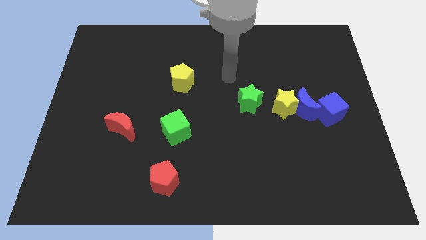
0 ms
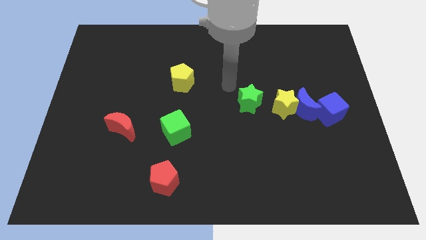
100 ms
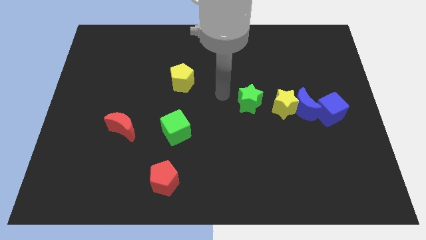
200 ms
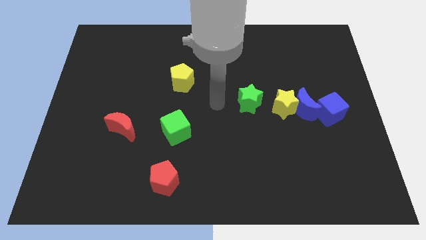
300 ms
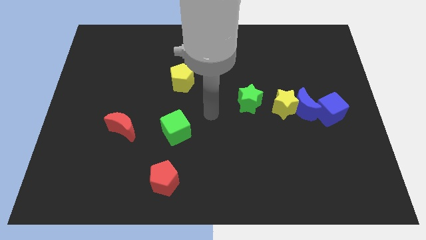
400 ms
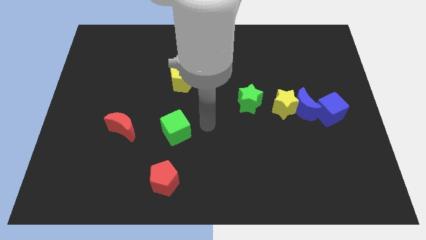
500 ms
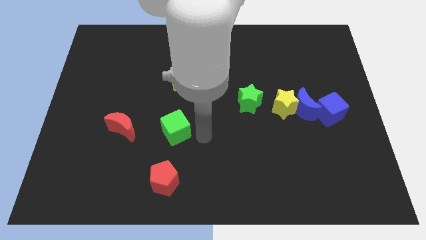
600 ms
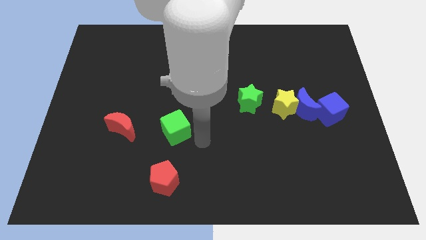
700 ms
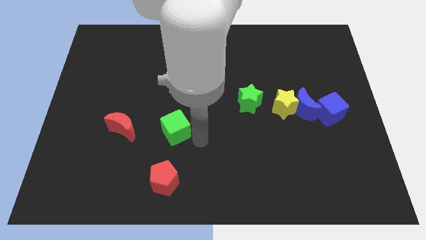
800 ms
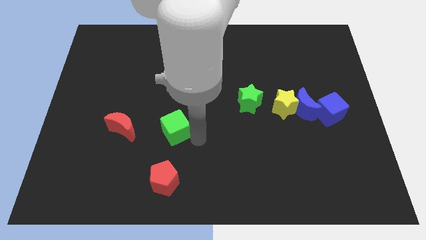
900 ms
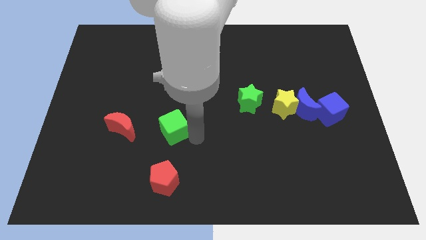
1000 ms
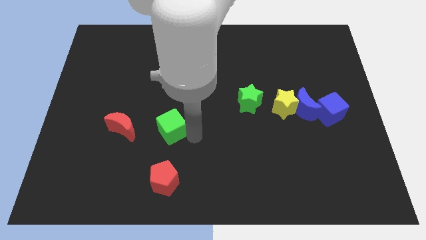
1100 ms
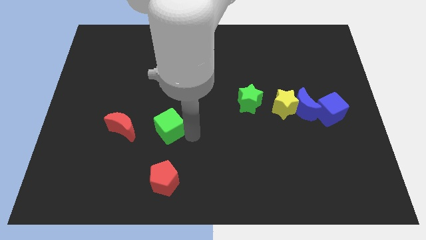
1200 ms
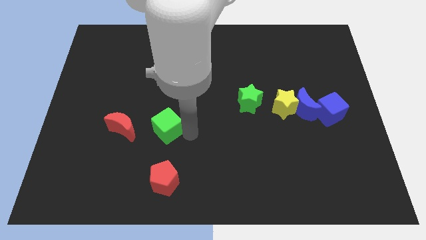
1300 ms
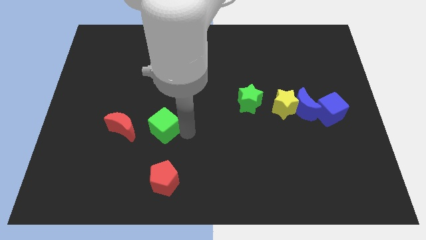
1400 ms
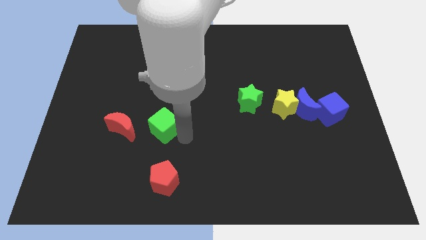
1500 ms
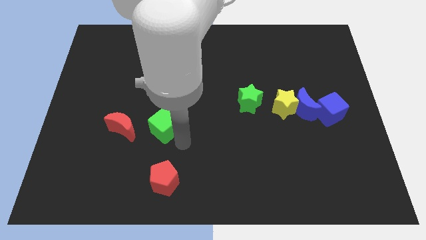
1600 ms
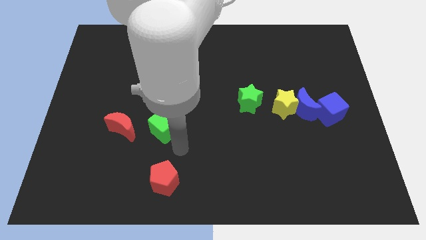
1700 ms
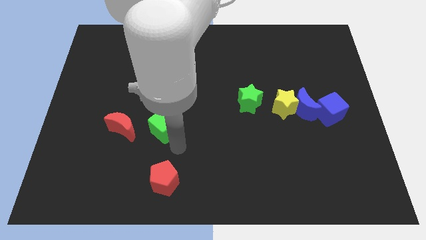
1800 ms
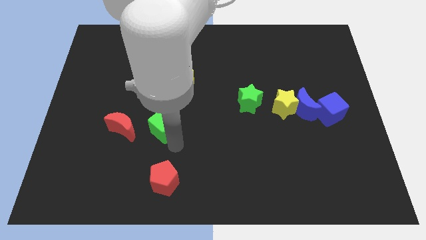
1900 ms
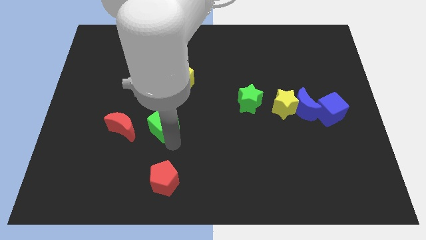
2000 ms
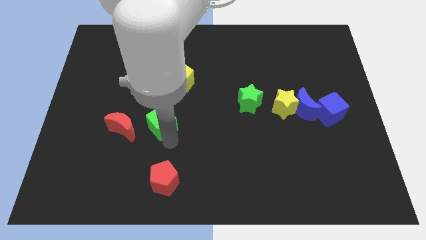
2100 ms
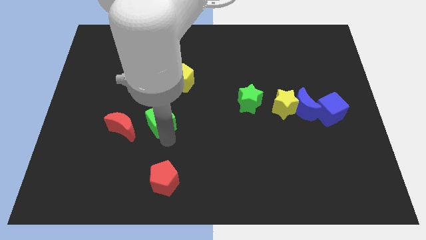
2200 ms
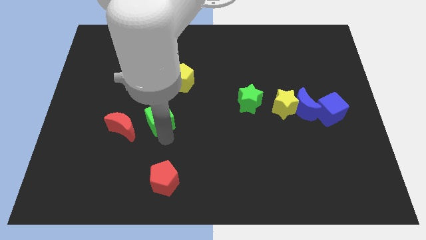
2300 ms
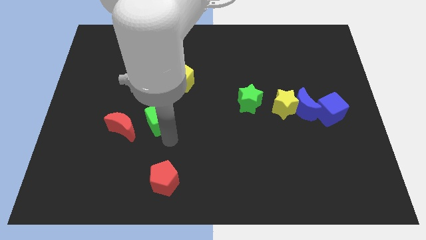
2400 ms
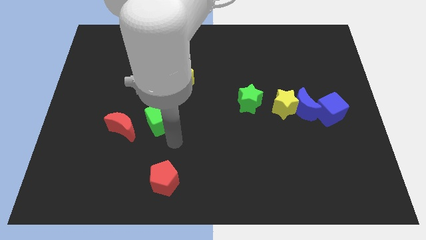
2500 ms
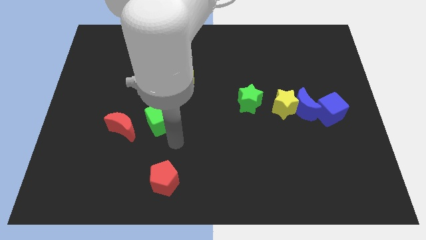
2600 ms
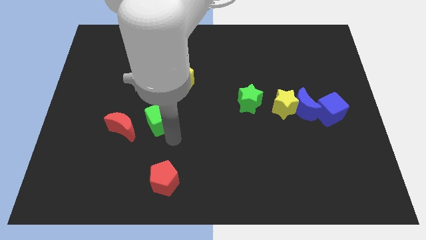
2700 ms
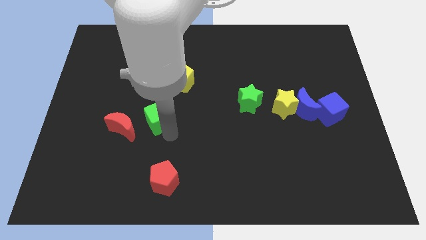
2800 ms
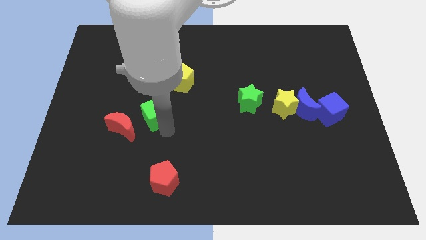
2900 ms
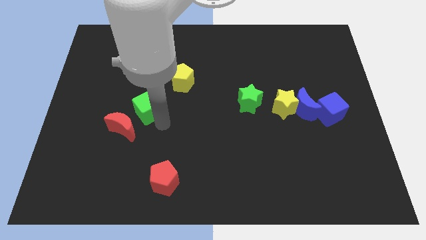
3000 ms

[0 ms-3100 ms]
slide the green cube slightly up and left diagonally

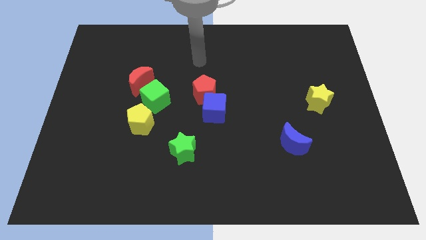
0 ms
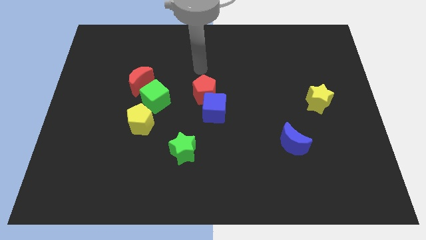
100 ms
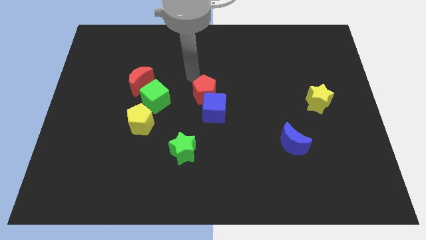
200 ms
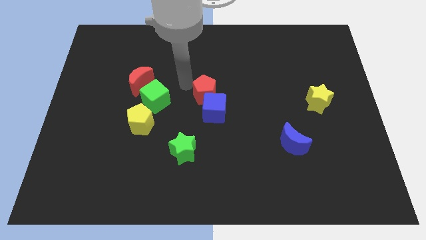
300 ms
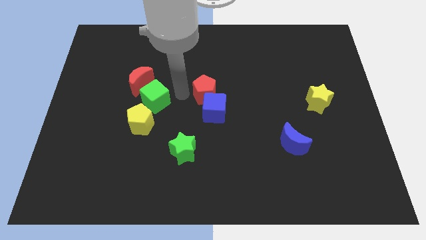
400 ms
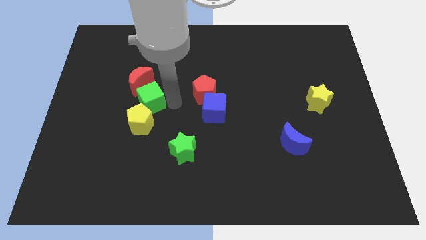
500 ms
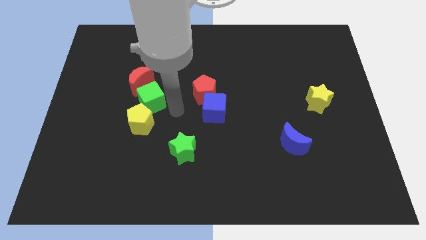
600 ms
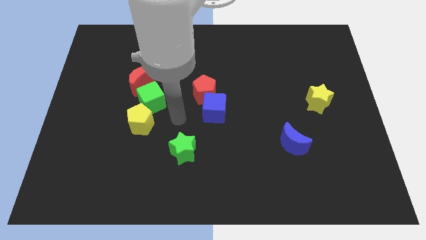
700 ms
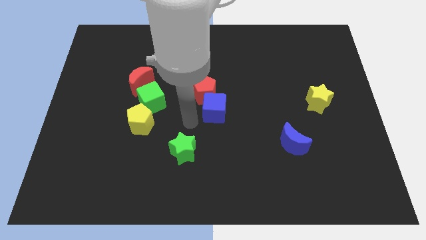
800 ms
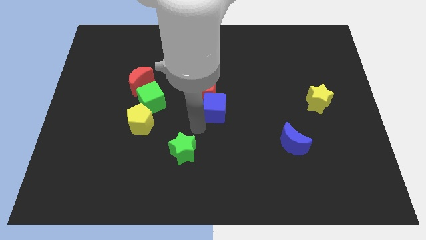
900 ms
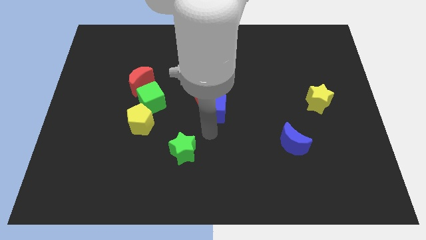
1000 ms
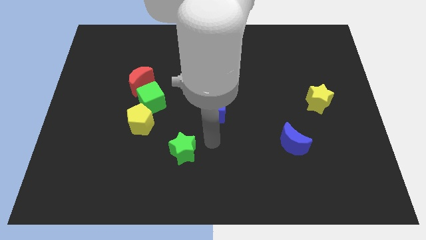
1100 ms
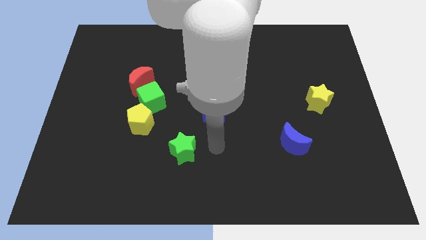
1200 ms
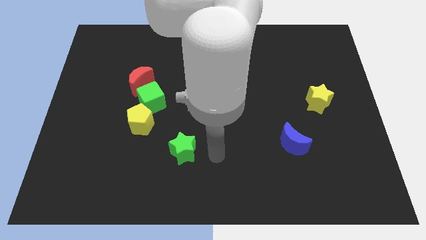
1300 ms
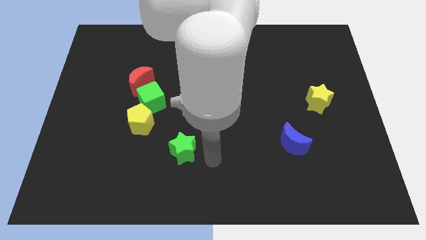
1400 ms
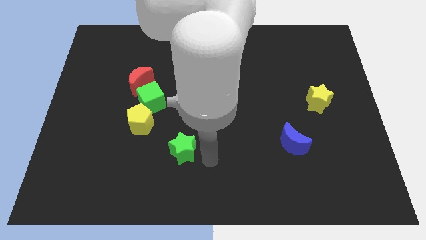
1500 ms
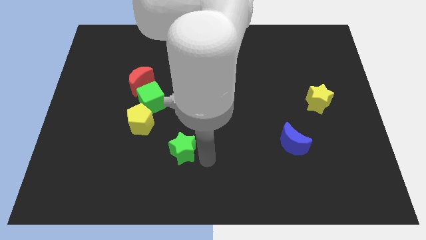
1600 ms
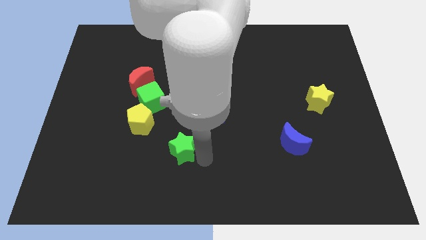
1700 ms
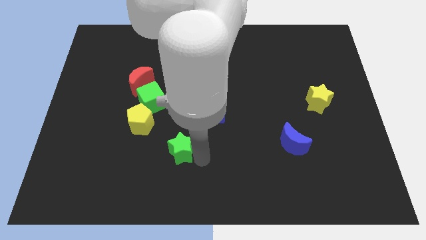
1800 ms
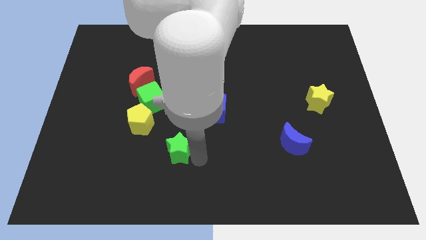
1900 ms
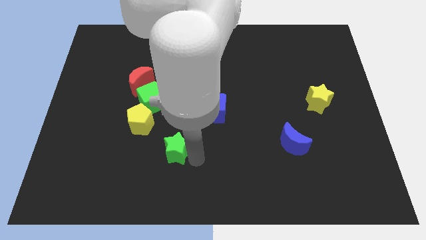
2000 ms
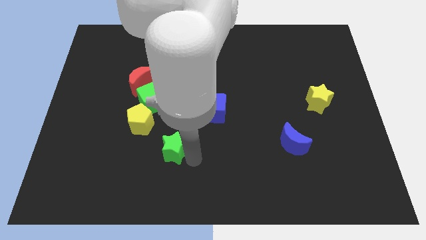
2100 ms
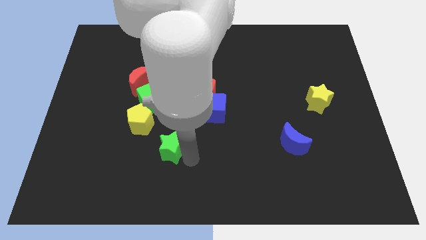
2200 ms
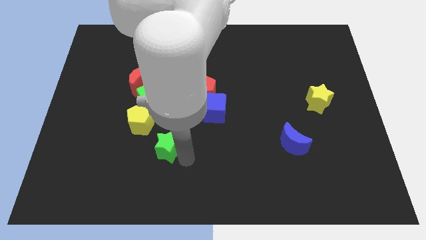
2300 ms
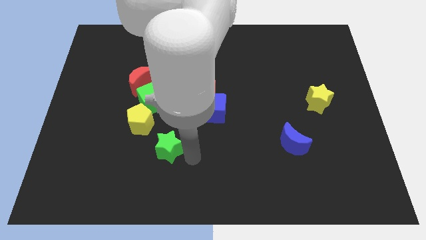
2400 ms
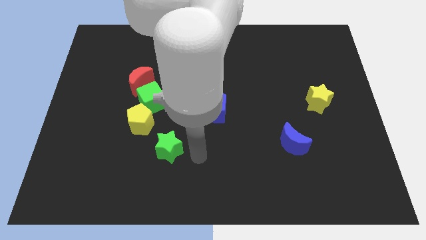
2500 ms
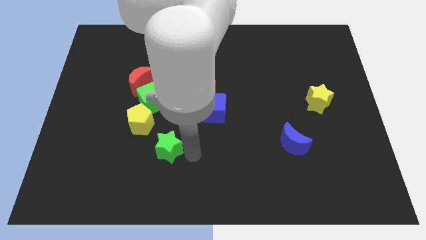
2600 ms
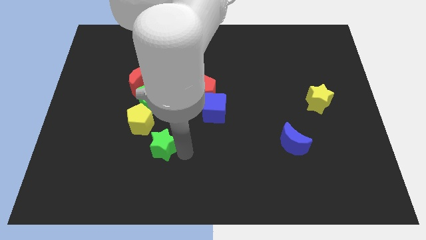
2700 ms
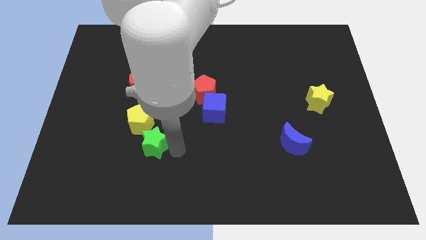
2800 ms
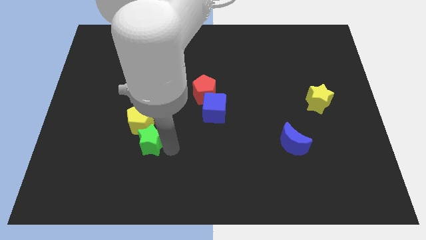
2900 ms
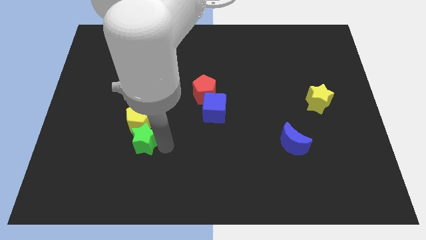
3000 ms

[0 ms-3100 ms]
push the green star a little bit upwards and then to the left

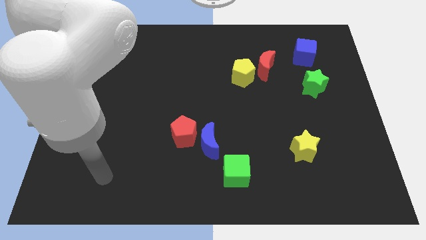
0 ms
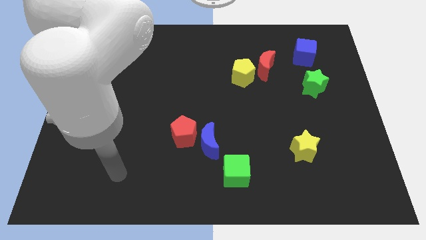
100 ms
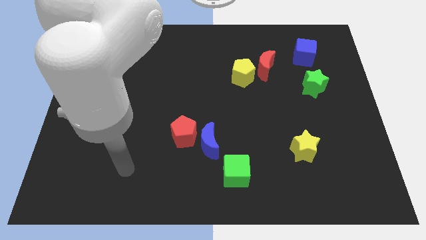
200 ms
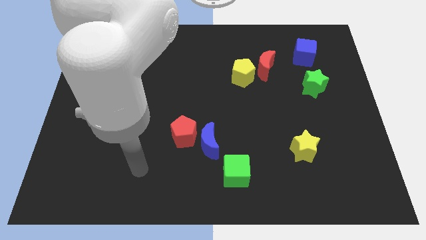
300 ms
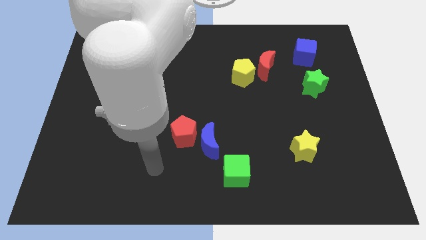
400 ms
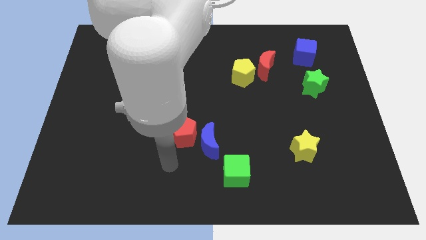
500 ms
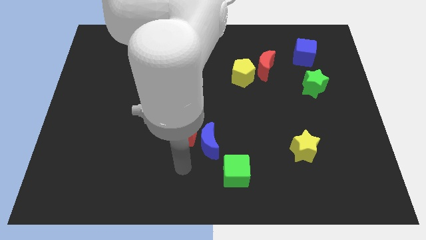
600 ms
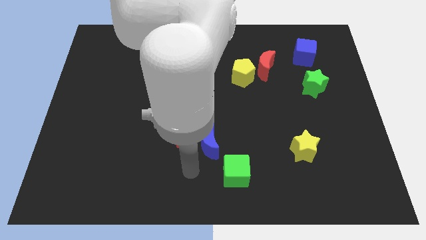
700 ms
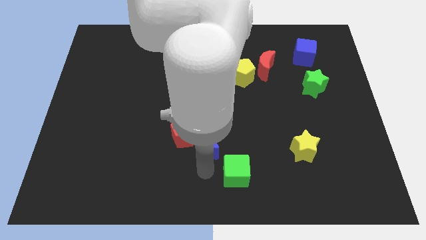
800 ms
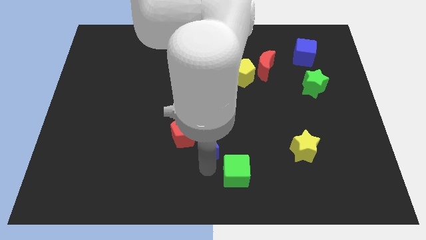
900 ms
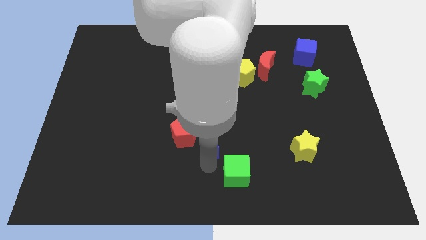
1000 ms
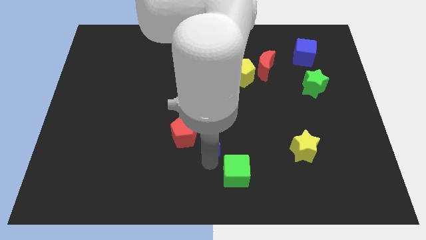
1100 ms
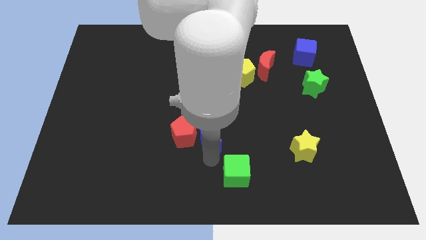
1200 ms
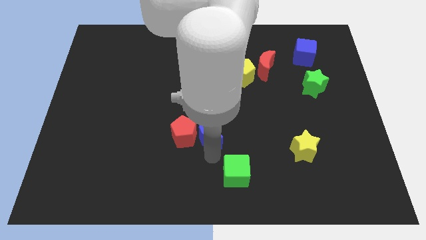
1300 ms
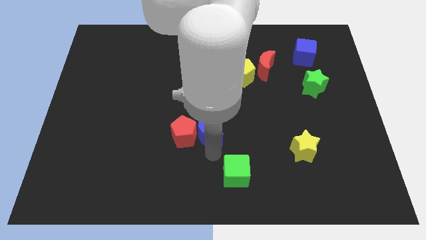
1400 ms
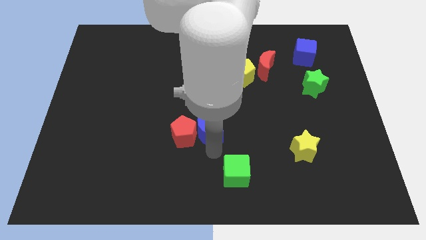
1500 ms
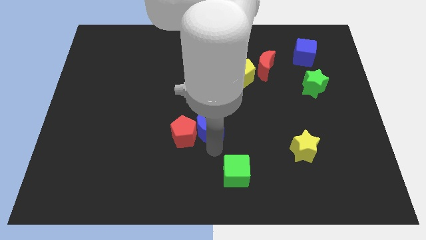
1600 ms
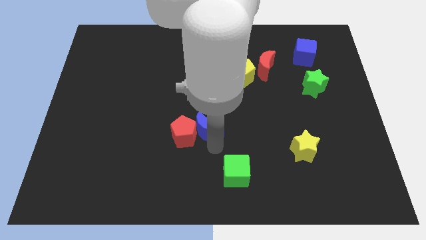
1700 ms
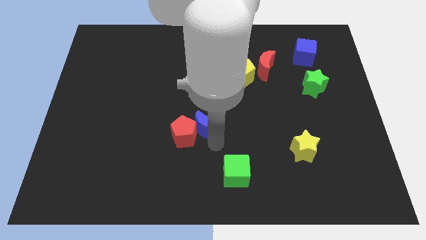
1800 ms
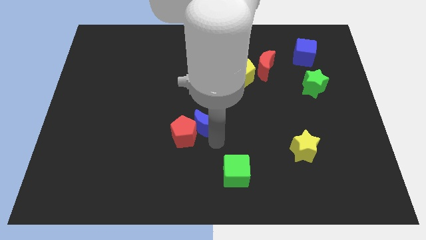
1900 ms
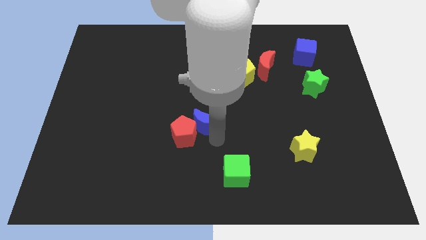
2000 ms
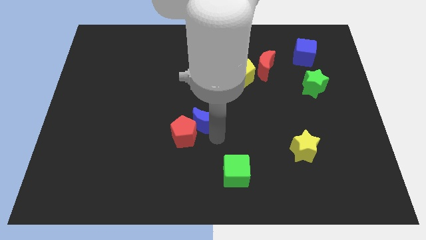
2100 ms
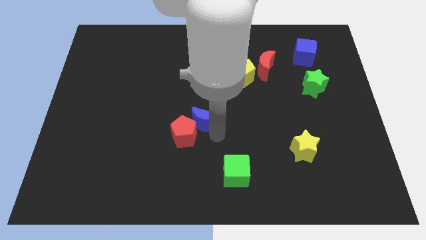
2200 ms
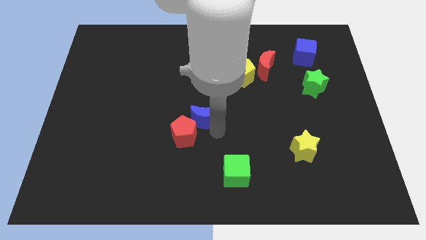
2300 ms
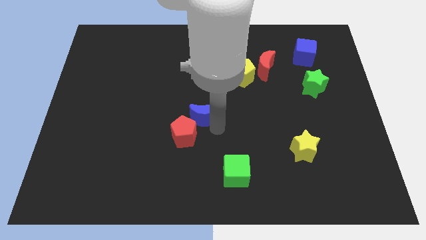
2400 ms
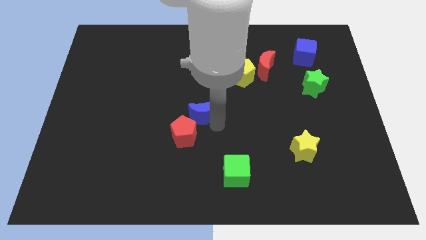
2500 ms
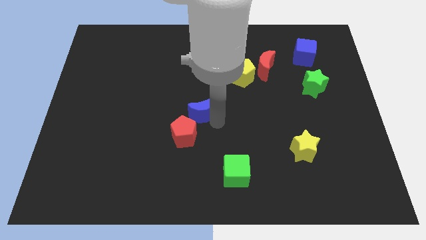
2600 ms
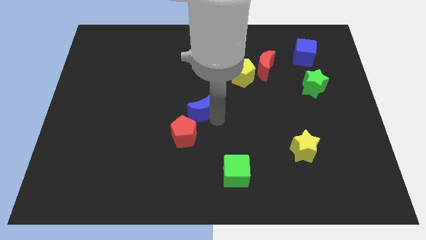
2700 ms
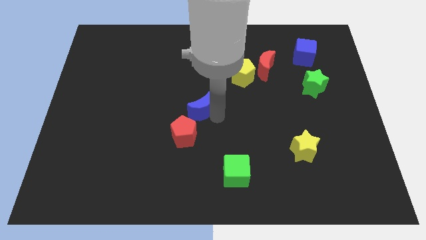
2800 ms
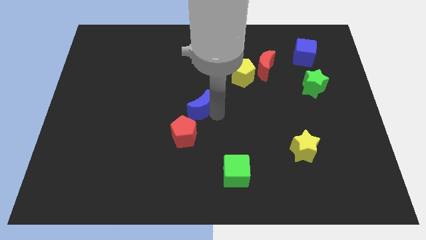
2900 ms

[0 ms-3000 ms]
push the blue moon a little bit up and left
